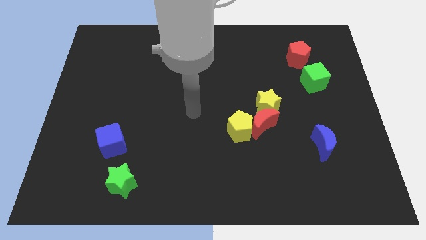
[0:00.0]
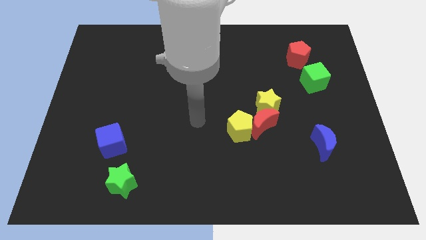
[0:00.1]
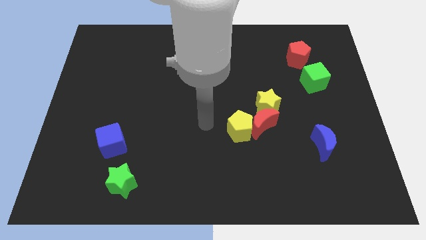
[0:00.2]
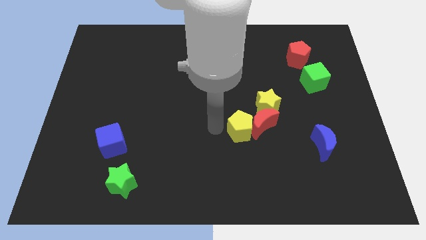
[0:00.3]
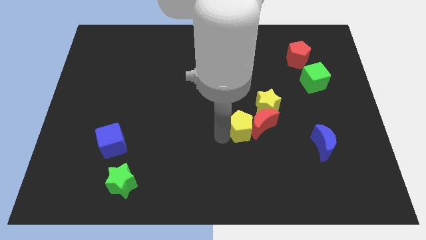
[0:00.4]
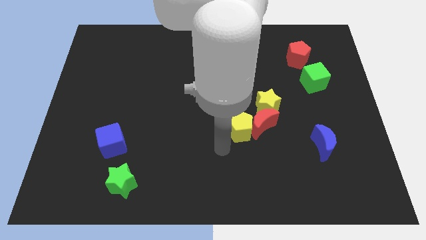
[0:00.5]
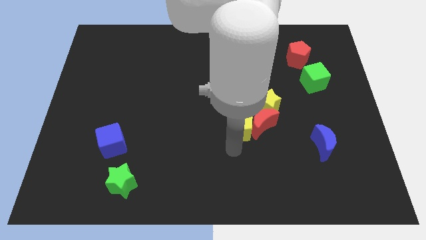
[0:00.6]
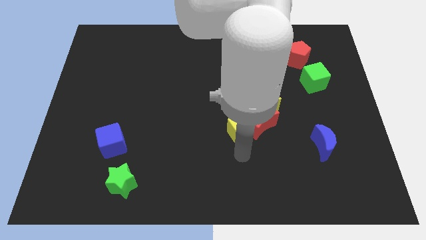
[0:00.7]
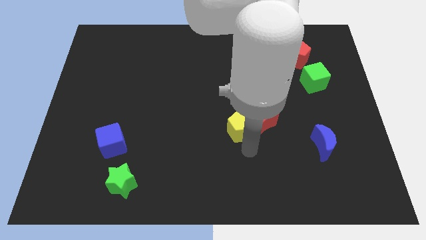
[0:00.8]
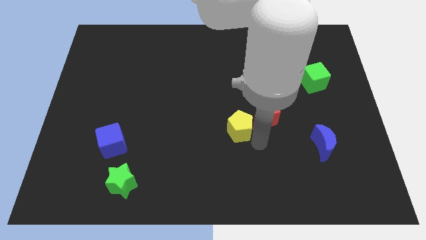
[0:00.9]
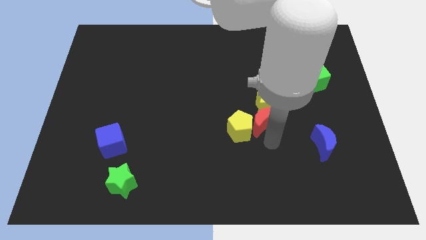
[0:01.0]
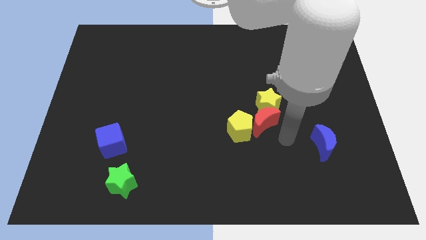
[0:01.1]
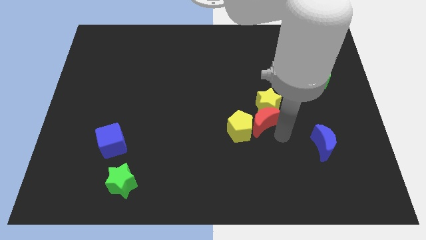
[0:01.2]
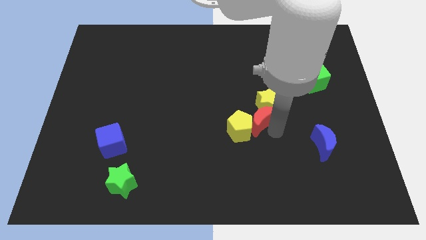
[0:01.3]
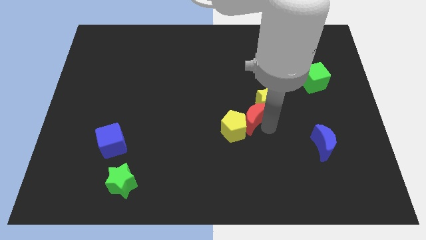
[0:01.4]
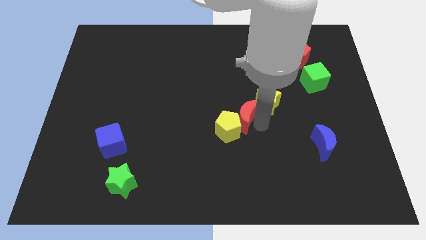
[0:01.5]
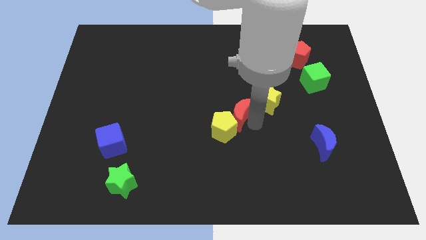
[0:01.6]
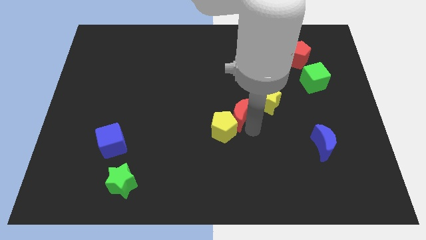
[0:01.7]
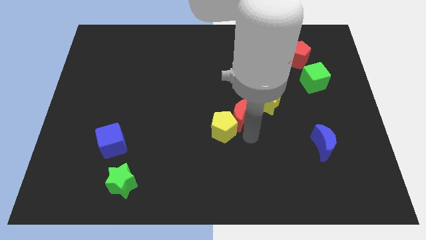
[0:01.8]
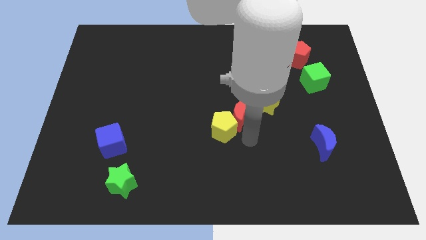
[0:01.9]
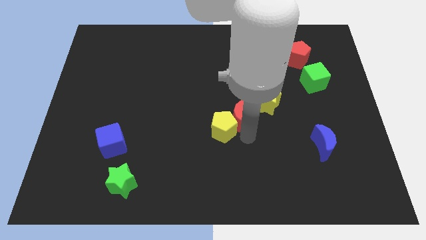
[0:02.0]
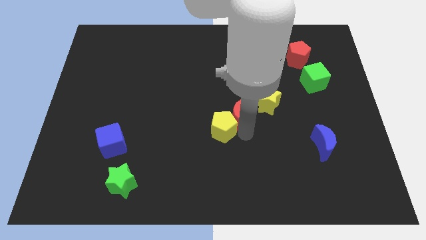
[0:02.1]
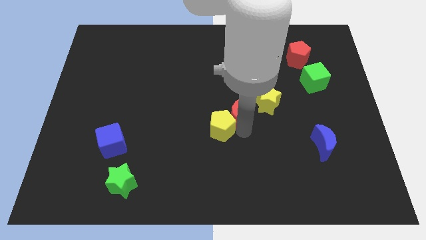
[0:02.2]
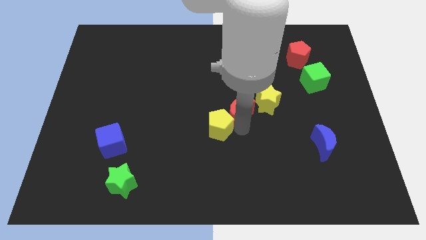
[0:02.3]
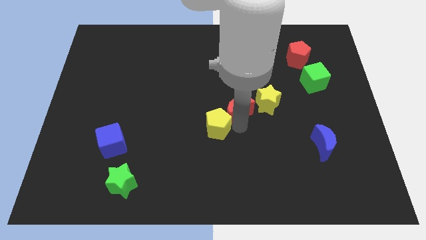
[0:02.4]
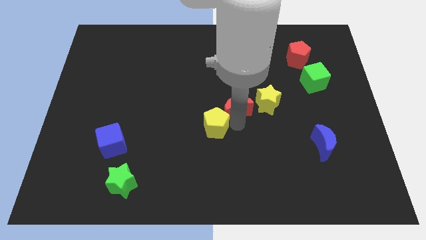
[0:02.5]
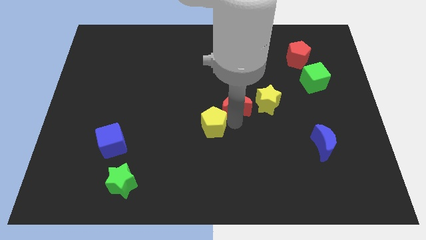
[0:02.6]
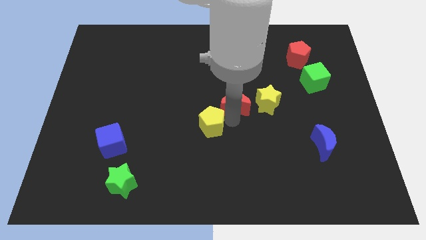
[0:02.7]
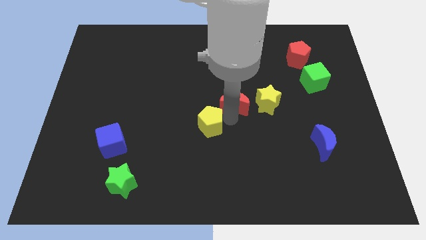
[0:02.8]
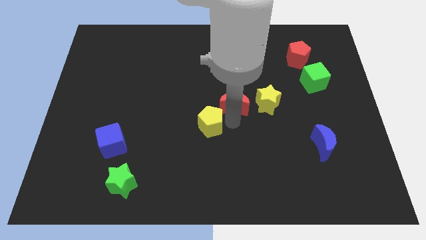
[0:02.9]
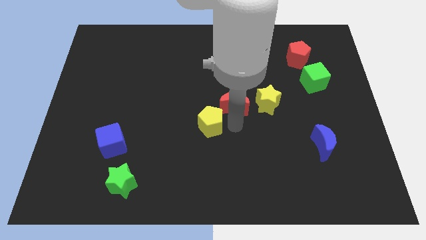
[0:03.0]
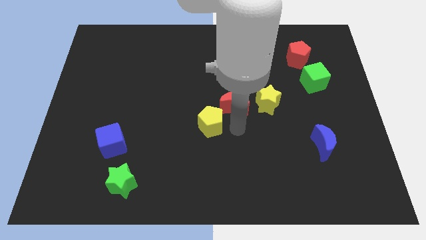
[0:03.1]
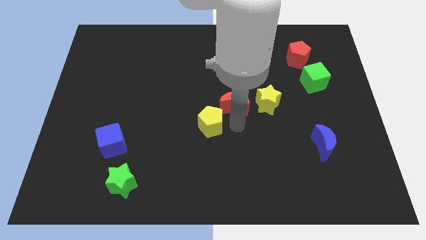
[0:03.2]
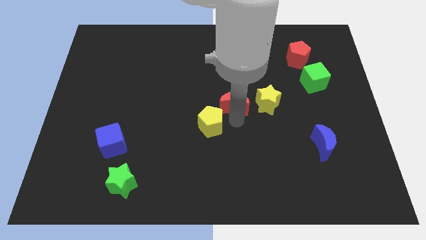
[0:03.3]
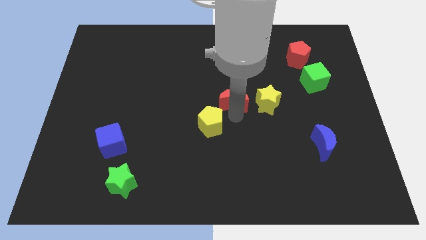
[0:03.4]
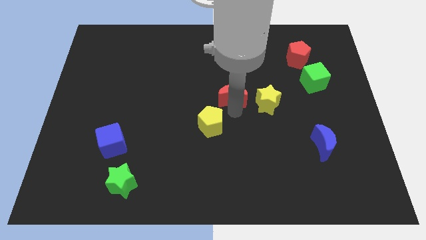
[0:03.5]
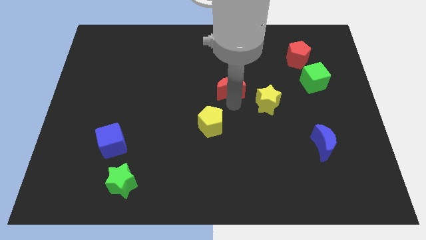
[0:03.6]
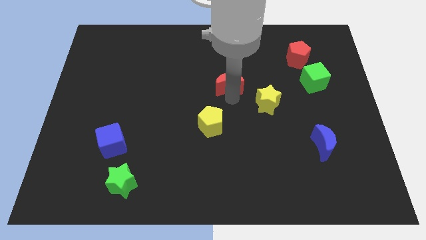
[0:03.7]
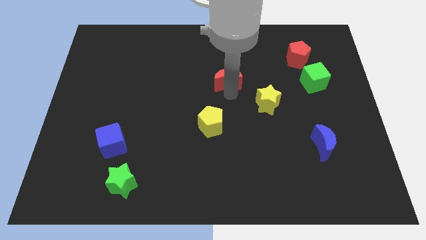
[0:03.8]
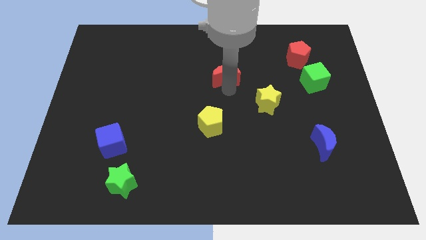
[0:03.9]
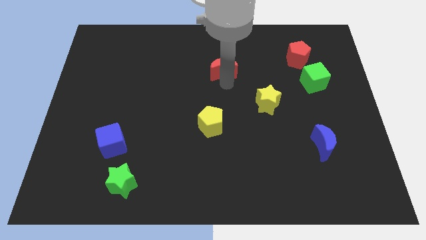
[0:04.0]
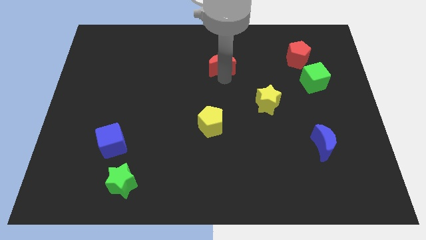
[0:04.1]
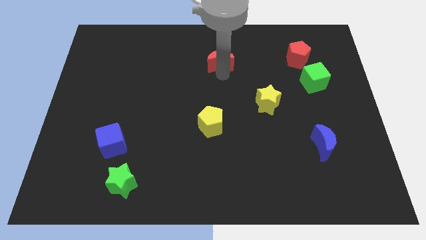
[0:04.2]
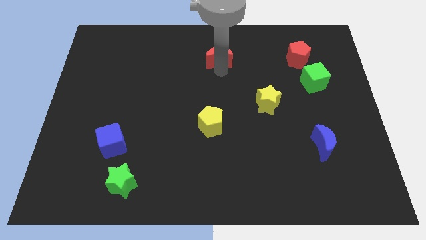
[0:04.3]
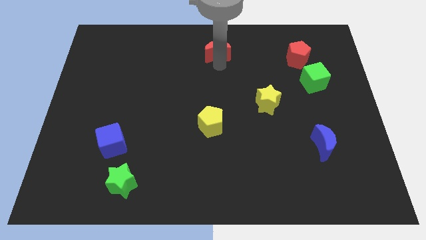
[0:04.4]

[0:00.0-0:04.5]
move the red moon to the top side

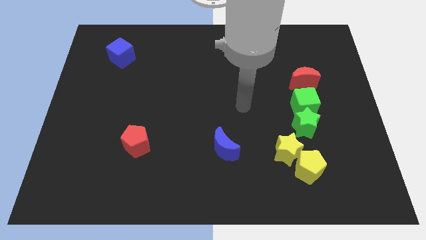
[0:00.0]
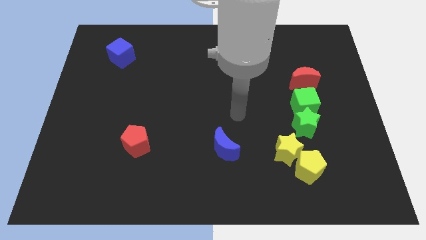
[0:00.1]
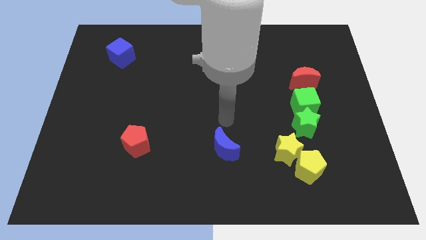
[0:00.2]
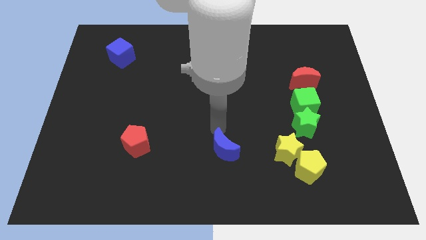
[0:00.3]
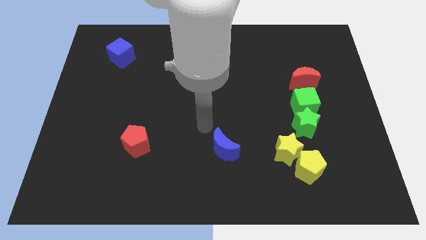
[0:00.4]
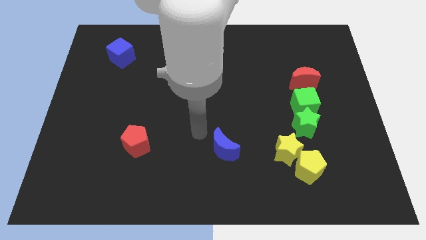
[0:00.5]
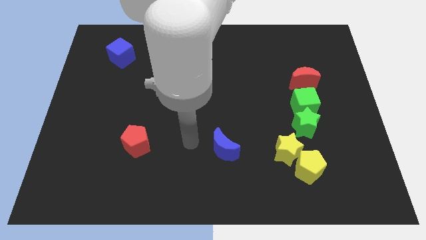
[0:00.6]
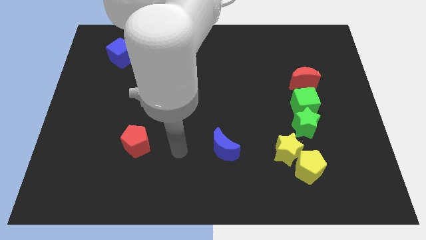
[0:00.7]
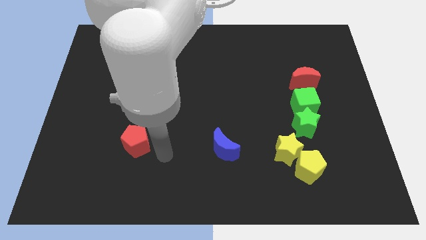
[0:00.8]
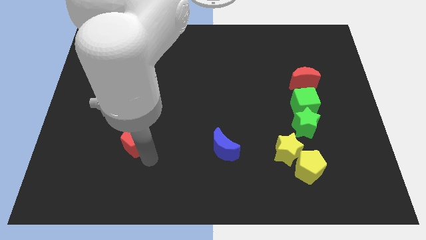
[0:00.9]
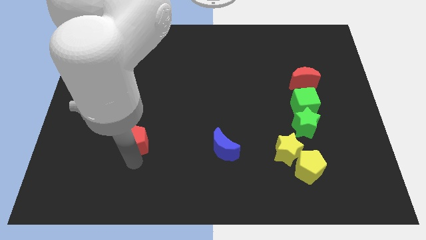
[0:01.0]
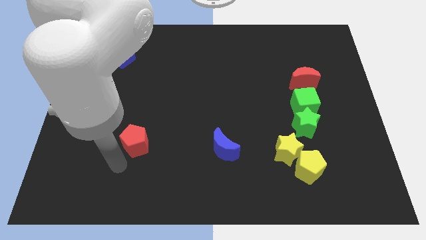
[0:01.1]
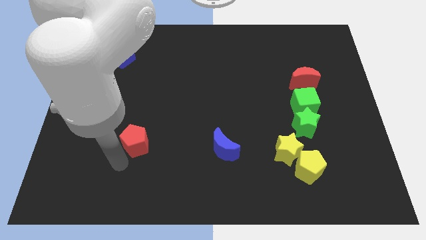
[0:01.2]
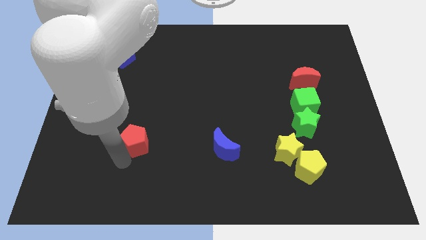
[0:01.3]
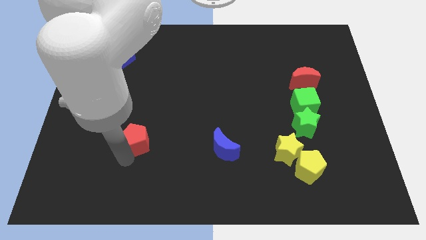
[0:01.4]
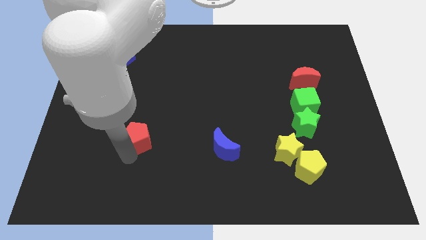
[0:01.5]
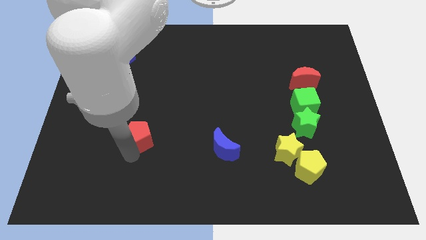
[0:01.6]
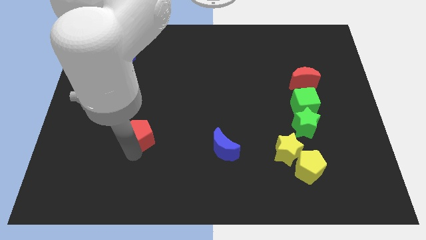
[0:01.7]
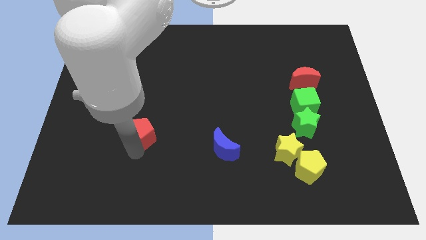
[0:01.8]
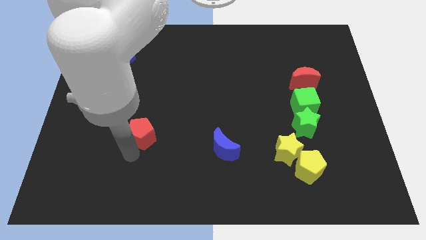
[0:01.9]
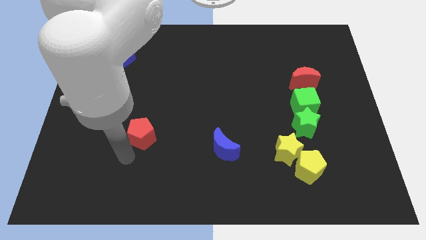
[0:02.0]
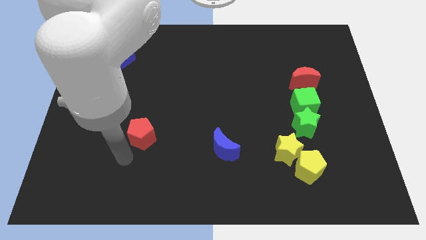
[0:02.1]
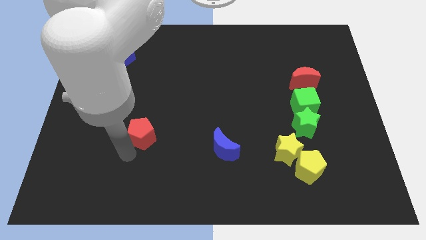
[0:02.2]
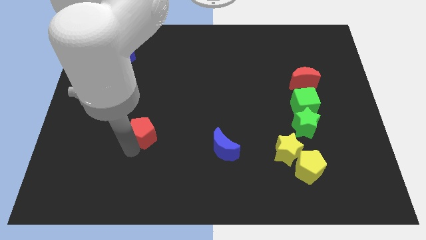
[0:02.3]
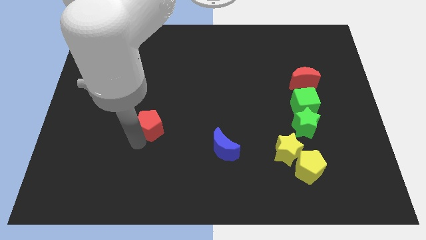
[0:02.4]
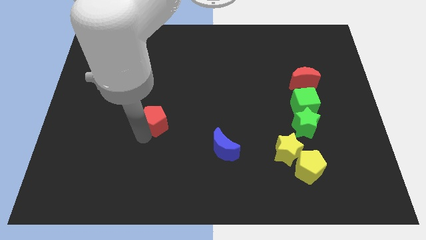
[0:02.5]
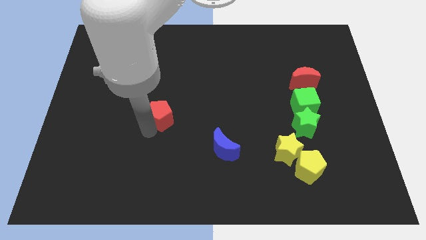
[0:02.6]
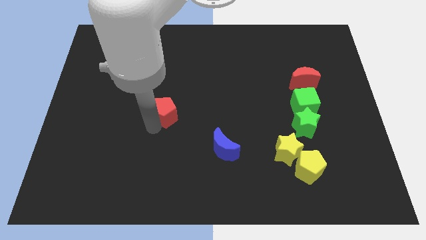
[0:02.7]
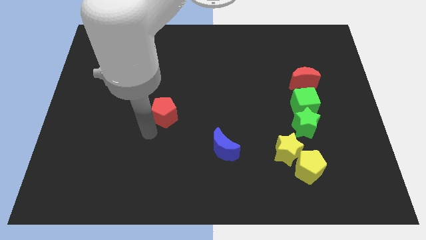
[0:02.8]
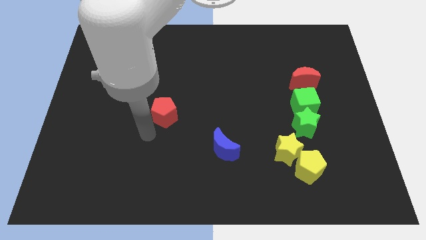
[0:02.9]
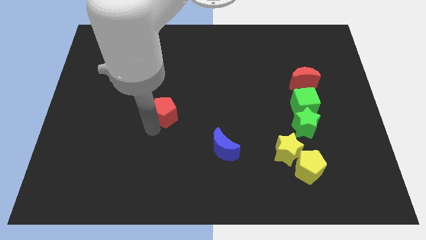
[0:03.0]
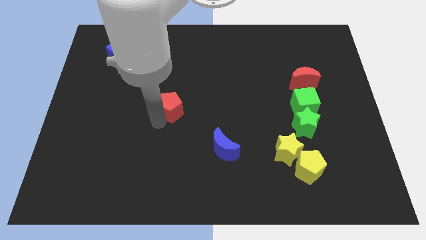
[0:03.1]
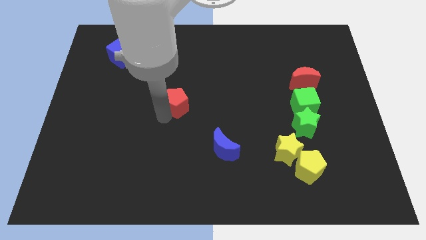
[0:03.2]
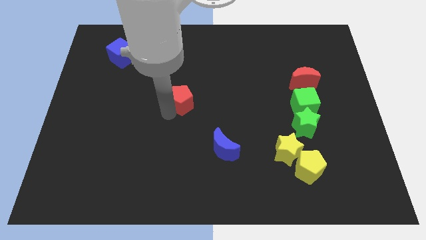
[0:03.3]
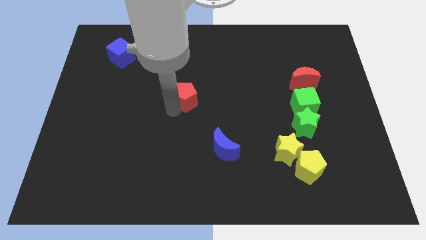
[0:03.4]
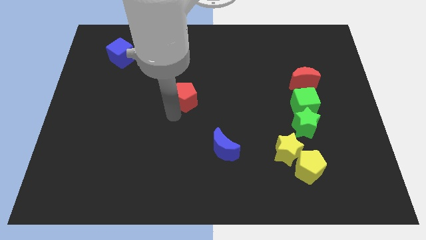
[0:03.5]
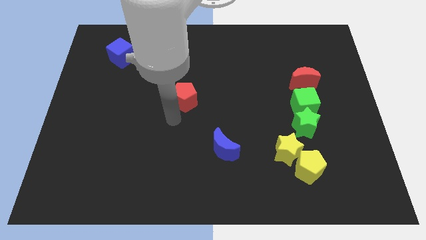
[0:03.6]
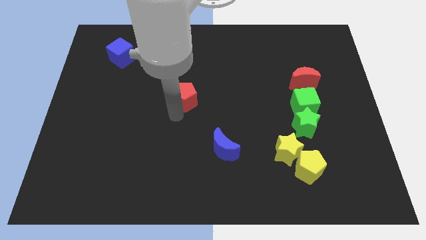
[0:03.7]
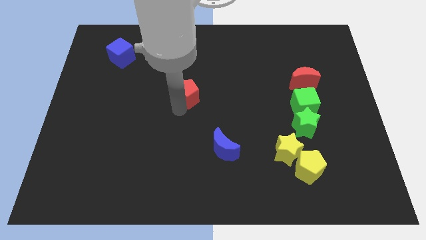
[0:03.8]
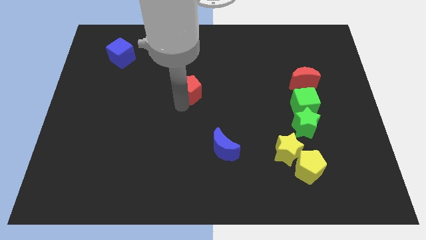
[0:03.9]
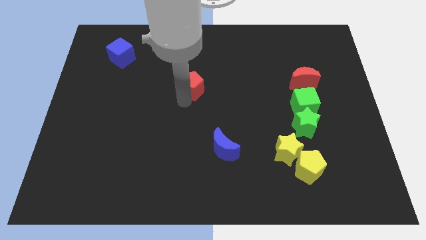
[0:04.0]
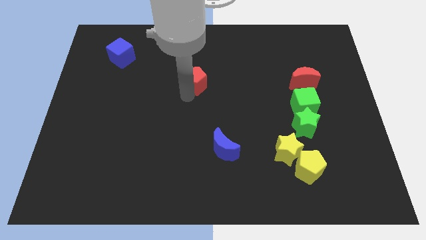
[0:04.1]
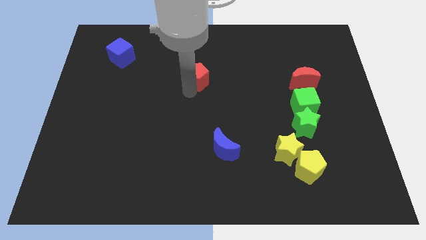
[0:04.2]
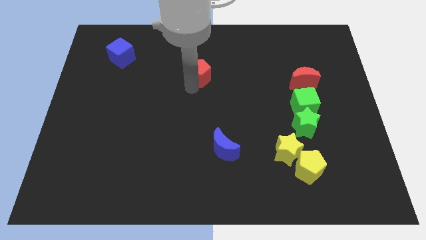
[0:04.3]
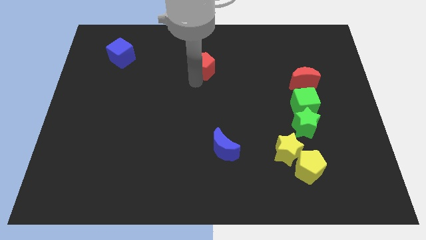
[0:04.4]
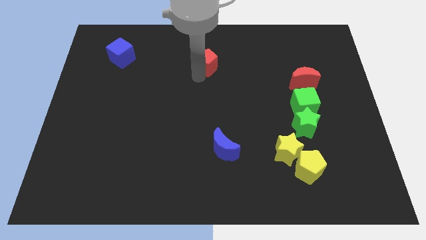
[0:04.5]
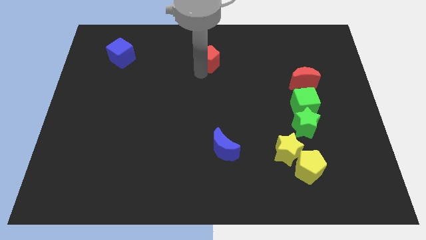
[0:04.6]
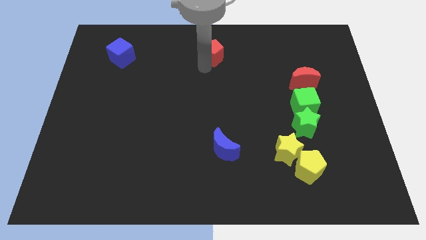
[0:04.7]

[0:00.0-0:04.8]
put the red pentagon to the towards your base
